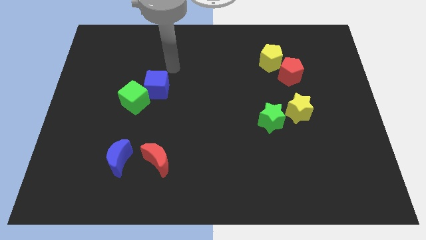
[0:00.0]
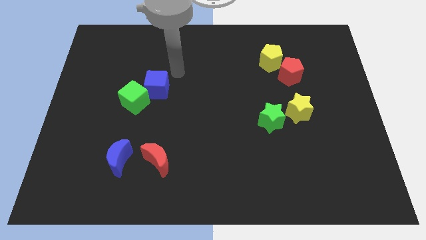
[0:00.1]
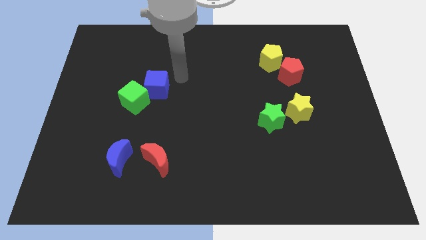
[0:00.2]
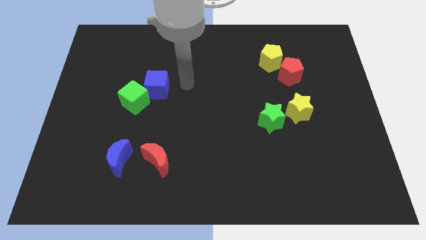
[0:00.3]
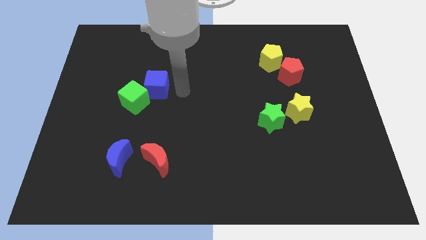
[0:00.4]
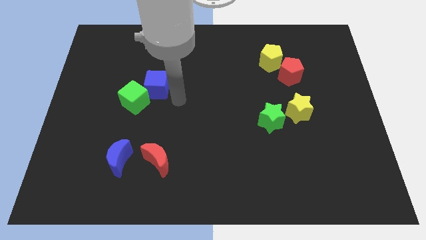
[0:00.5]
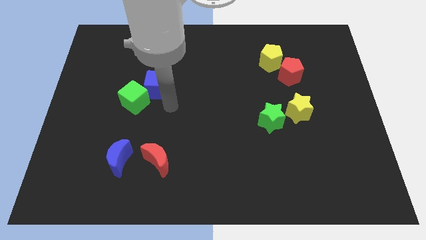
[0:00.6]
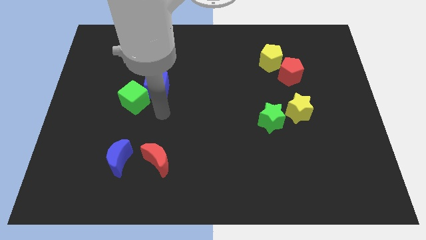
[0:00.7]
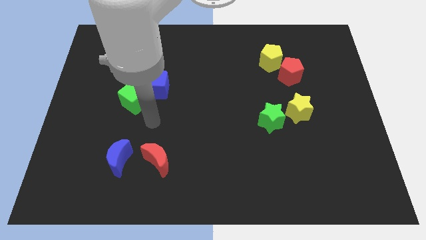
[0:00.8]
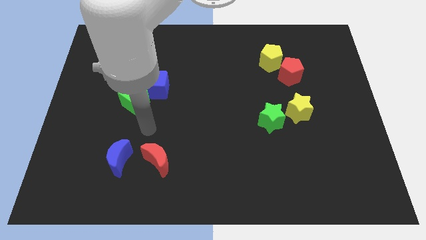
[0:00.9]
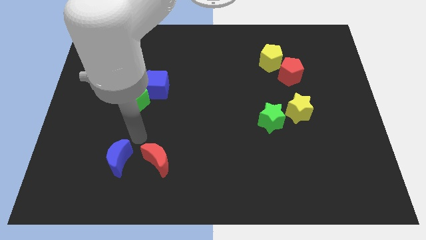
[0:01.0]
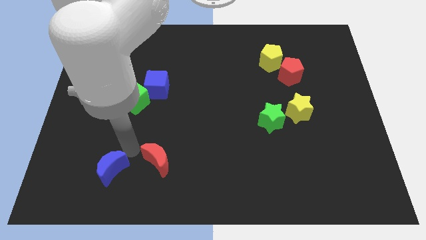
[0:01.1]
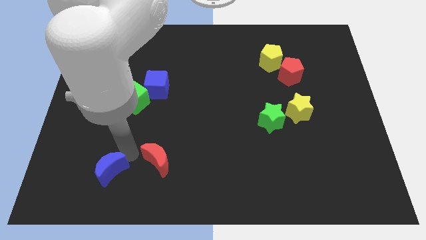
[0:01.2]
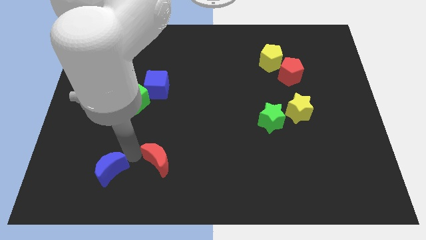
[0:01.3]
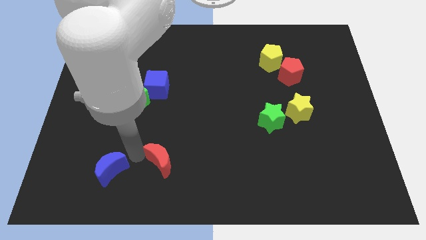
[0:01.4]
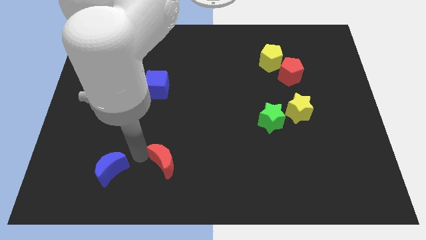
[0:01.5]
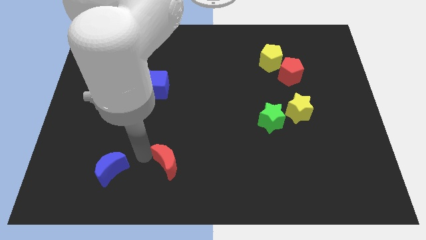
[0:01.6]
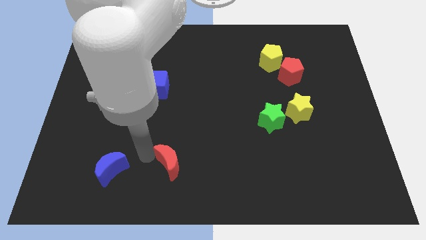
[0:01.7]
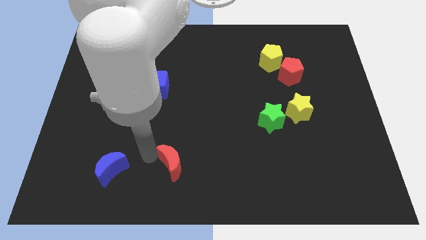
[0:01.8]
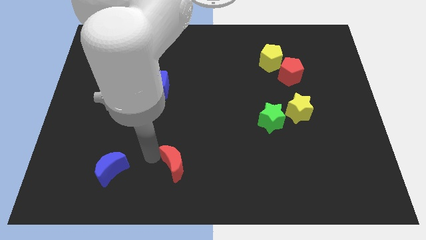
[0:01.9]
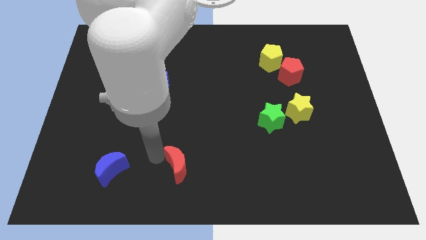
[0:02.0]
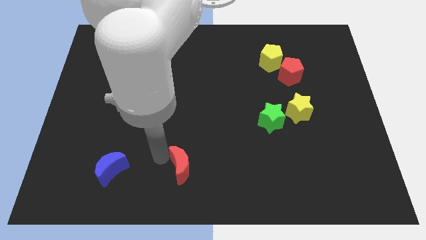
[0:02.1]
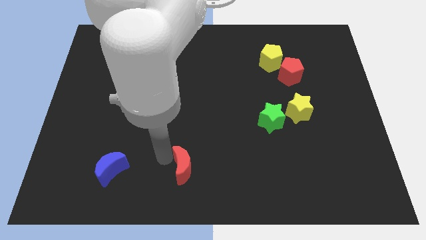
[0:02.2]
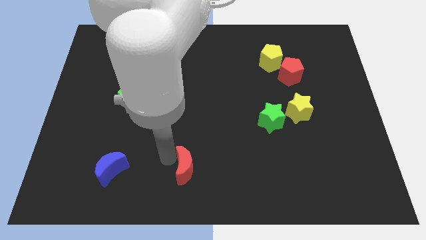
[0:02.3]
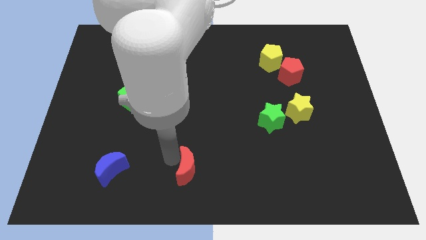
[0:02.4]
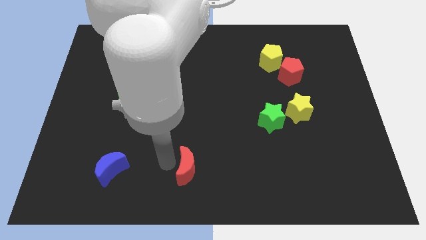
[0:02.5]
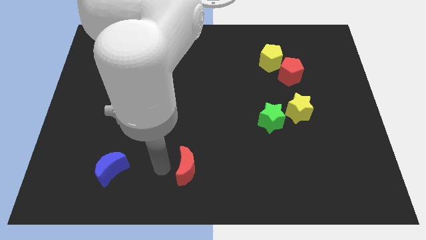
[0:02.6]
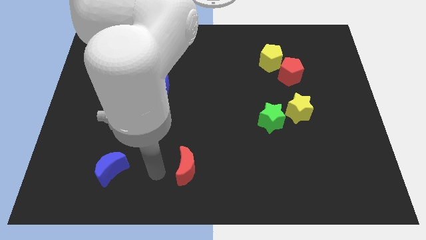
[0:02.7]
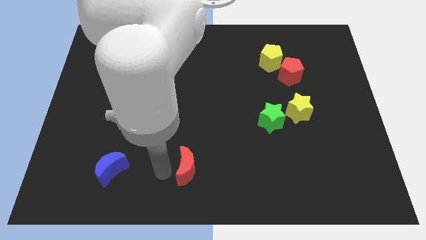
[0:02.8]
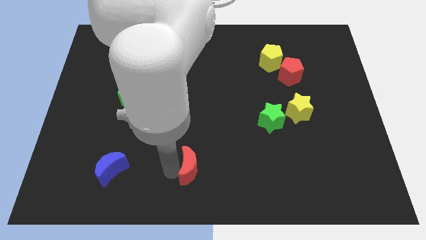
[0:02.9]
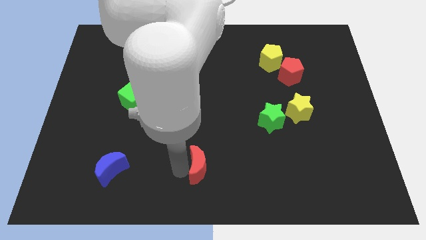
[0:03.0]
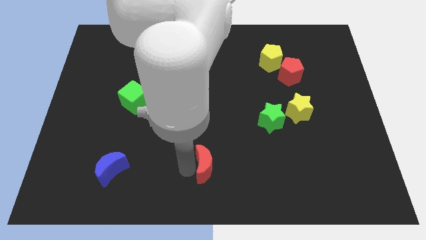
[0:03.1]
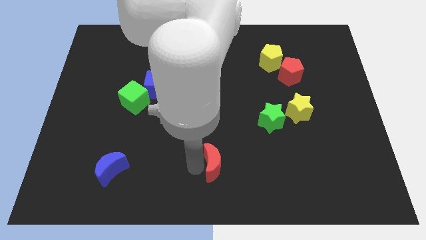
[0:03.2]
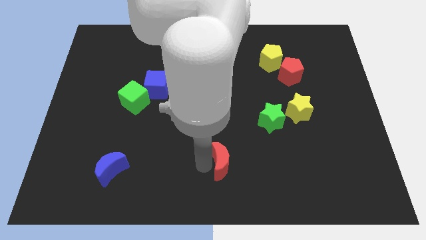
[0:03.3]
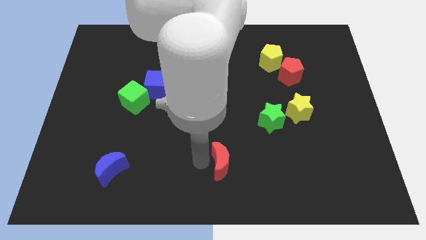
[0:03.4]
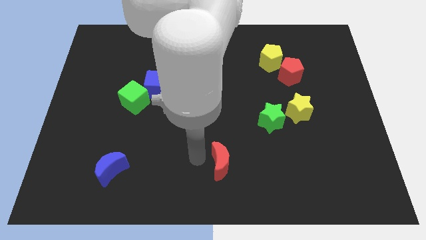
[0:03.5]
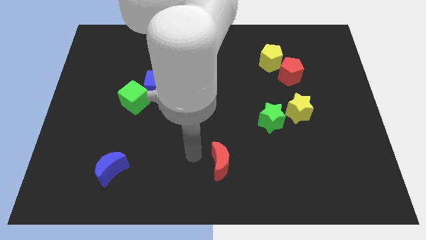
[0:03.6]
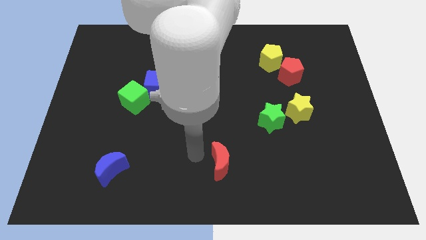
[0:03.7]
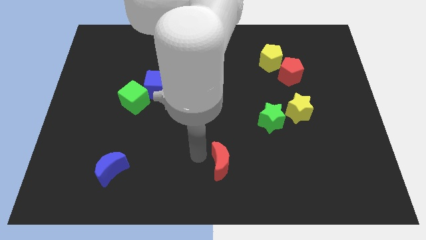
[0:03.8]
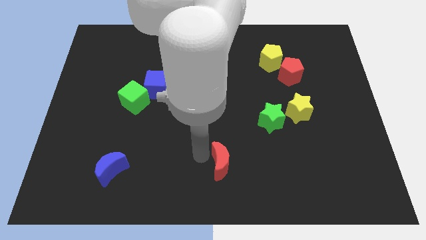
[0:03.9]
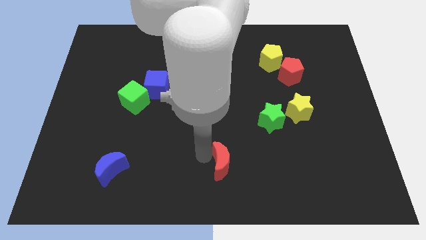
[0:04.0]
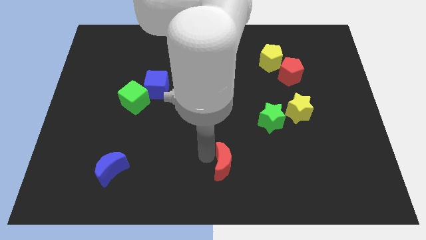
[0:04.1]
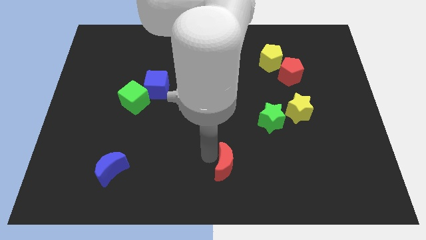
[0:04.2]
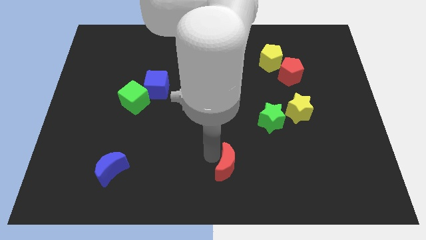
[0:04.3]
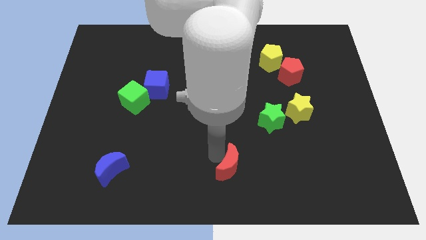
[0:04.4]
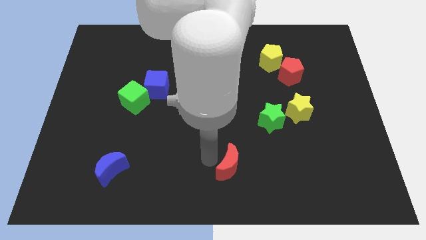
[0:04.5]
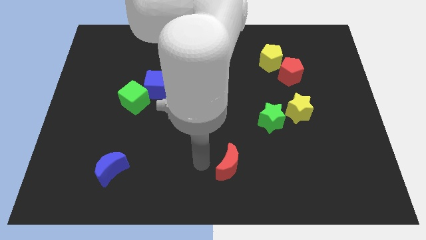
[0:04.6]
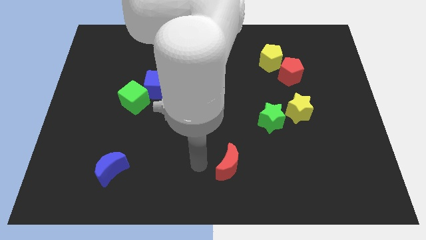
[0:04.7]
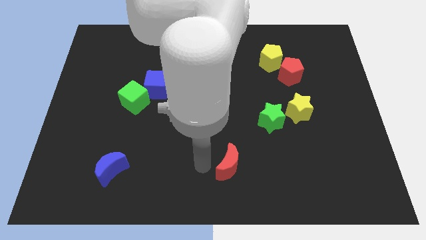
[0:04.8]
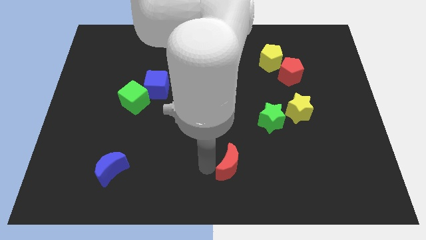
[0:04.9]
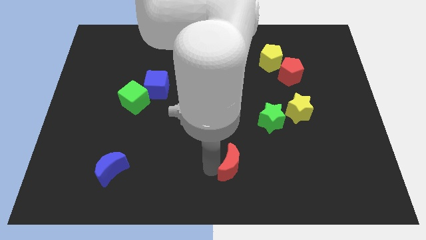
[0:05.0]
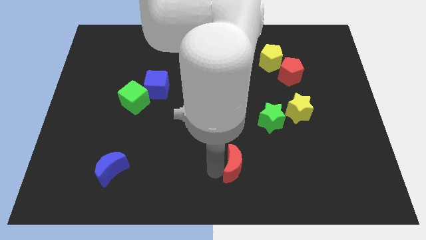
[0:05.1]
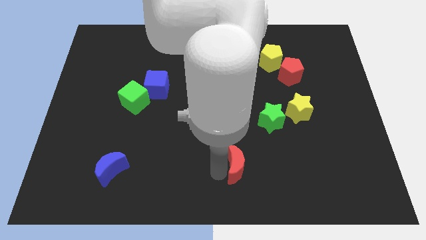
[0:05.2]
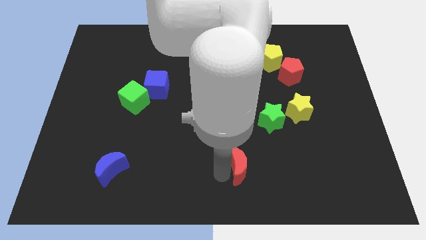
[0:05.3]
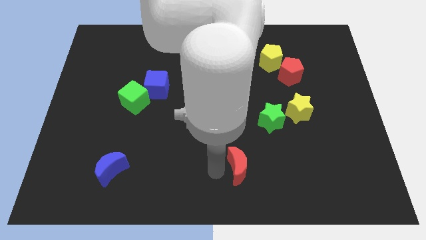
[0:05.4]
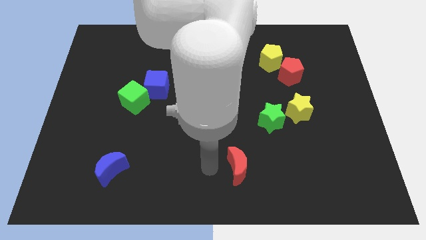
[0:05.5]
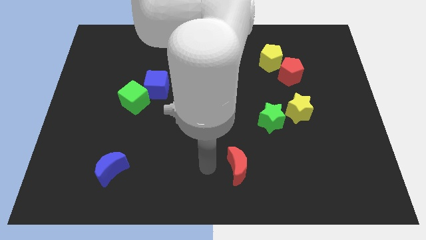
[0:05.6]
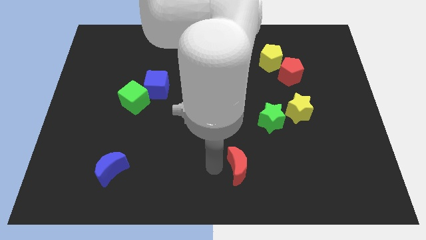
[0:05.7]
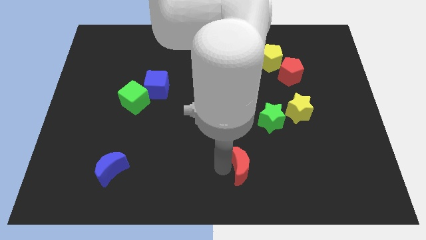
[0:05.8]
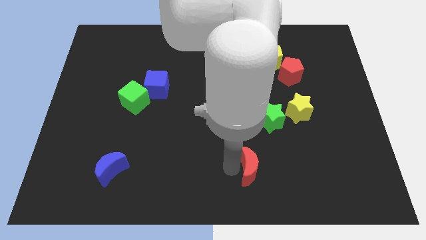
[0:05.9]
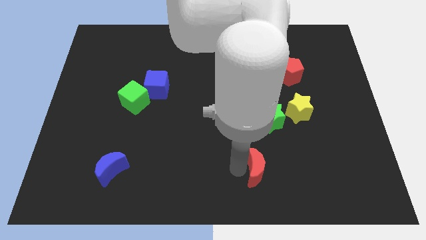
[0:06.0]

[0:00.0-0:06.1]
slide the red moon right

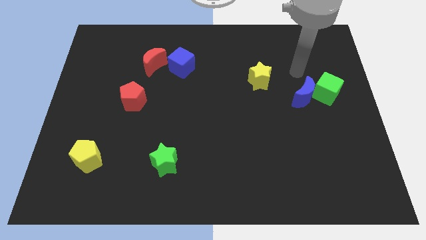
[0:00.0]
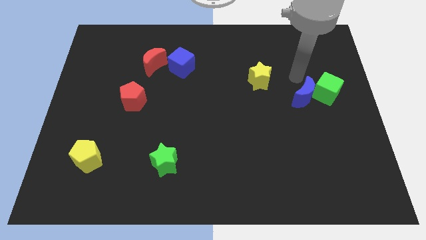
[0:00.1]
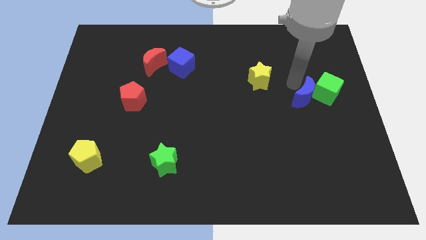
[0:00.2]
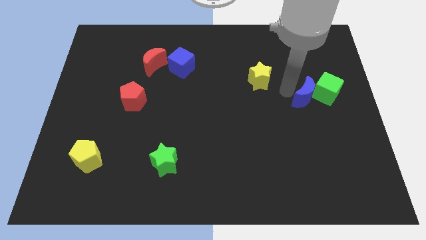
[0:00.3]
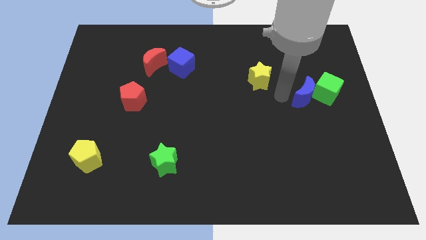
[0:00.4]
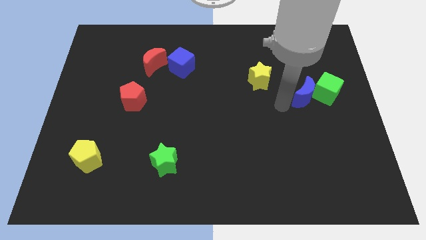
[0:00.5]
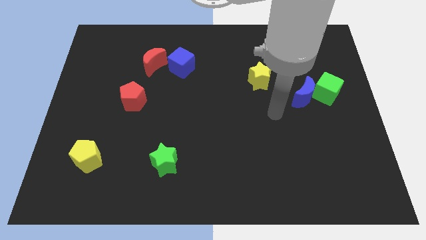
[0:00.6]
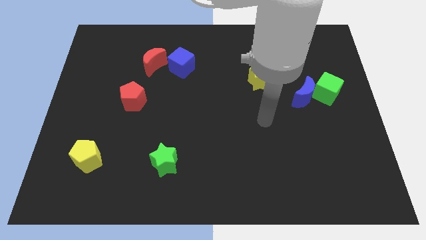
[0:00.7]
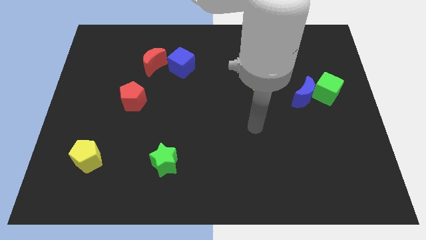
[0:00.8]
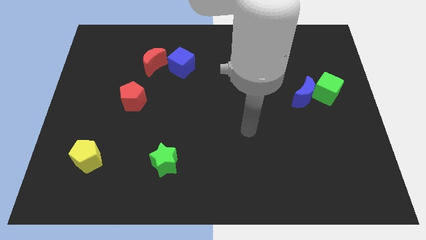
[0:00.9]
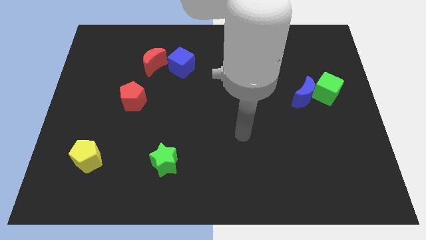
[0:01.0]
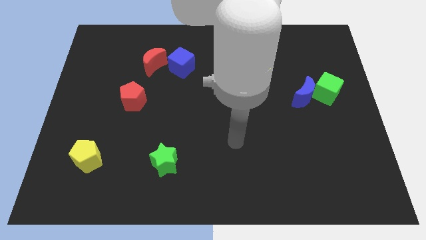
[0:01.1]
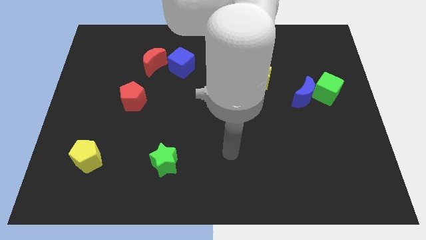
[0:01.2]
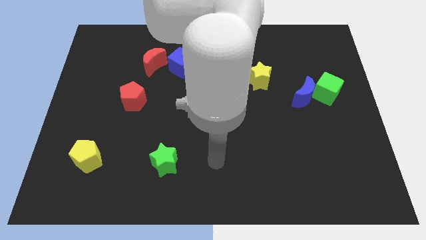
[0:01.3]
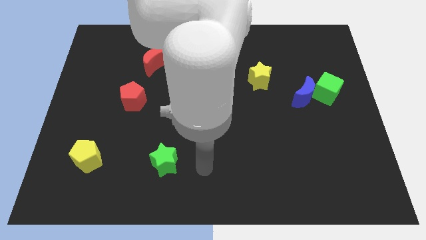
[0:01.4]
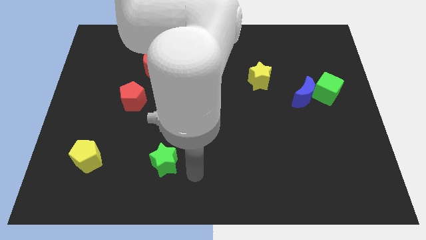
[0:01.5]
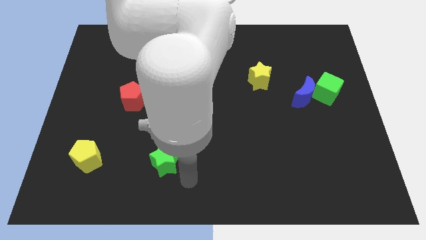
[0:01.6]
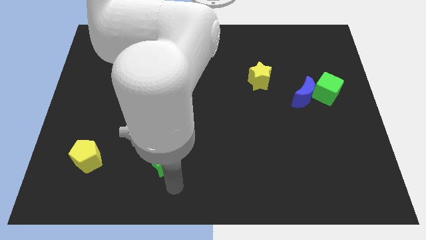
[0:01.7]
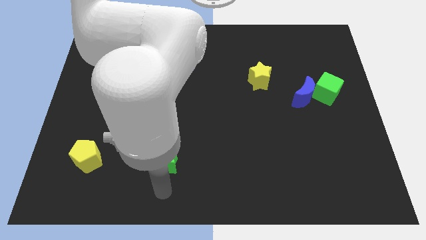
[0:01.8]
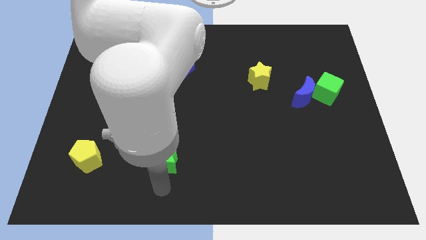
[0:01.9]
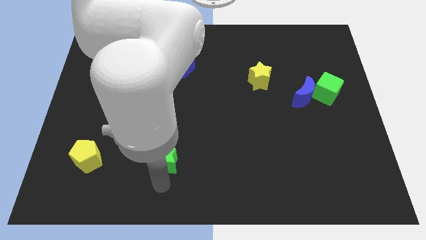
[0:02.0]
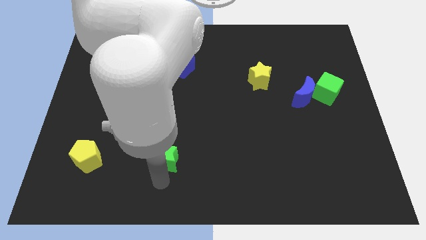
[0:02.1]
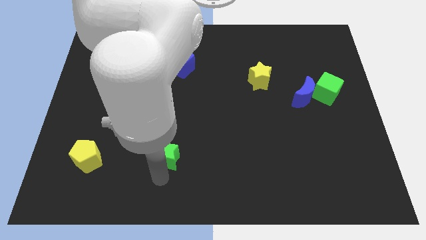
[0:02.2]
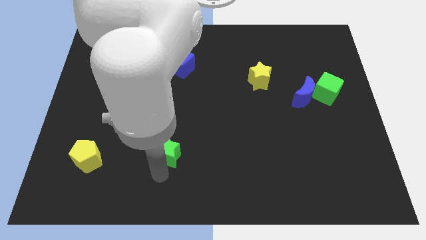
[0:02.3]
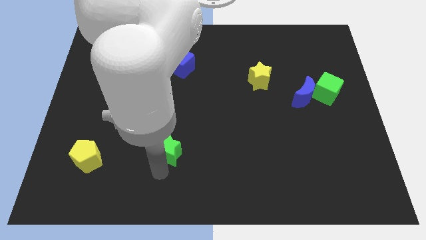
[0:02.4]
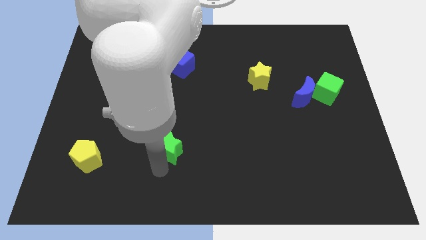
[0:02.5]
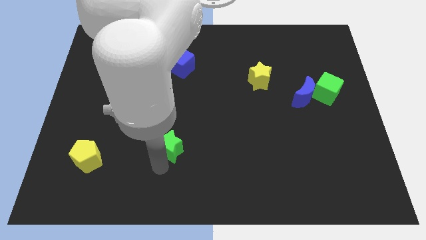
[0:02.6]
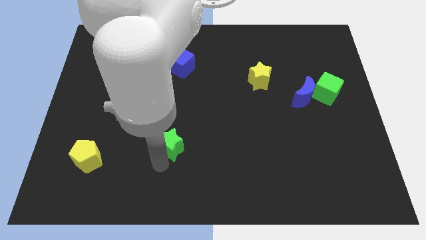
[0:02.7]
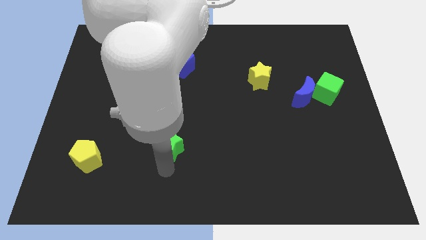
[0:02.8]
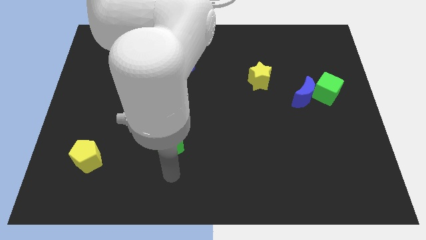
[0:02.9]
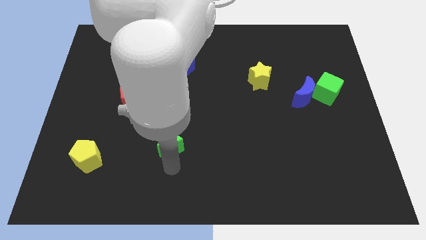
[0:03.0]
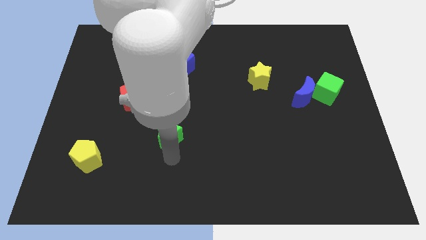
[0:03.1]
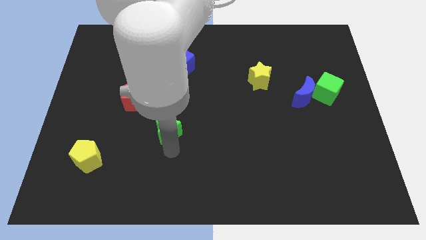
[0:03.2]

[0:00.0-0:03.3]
slightly move the green star up
